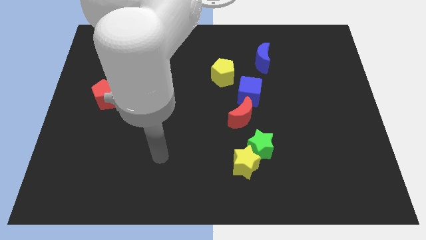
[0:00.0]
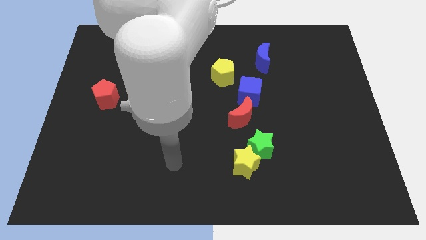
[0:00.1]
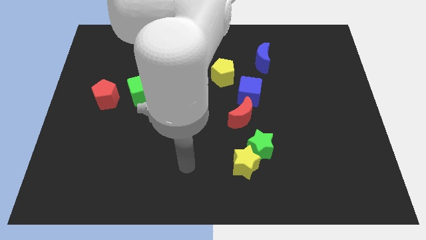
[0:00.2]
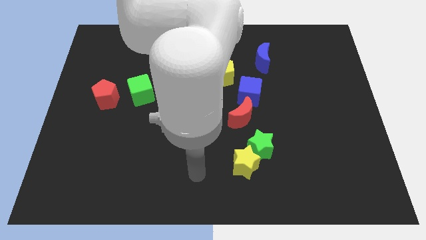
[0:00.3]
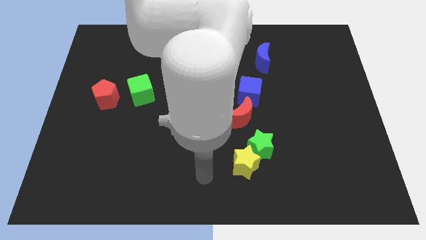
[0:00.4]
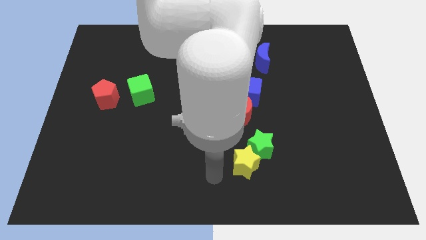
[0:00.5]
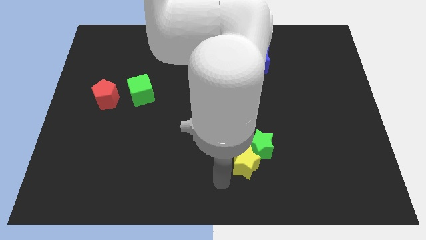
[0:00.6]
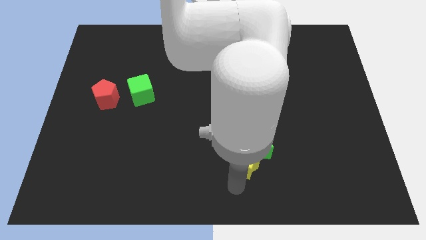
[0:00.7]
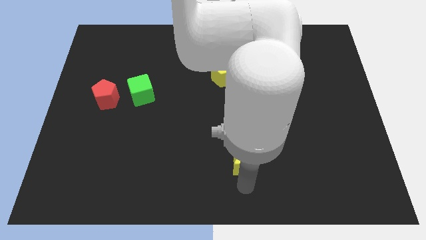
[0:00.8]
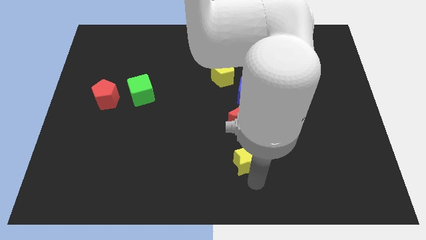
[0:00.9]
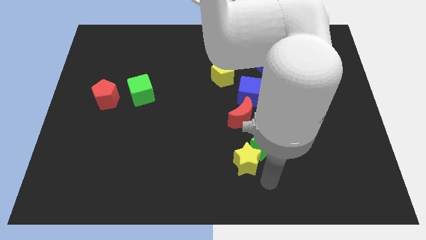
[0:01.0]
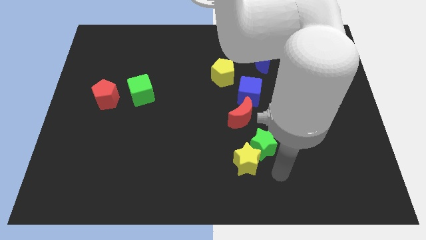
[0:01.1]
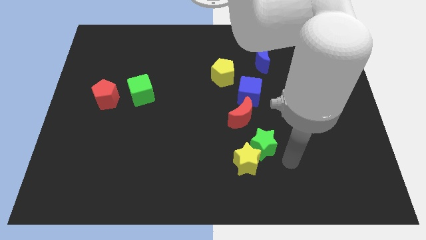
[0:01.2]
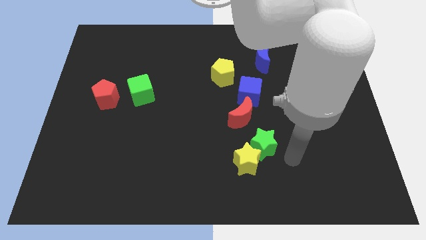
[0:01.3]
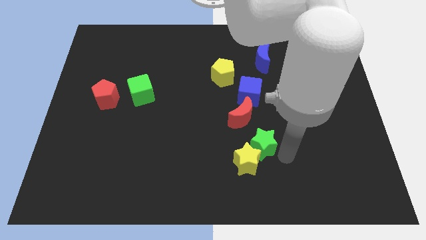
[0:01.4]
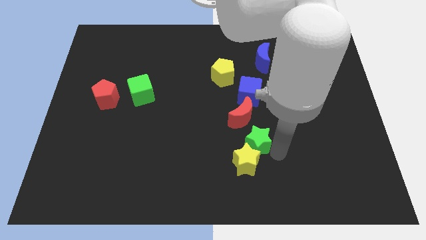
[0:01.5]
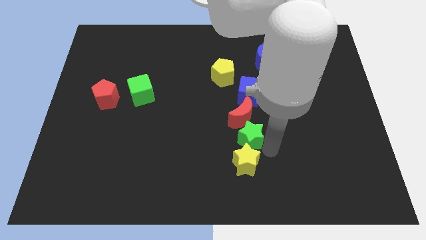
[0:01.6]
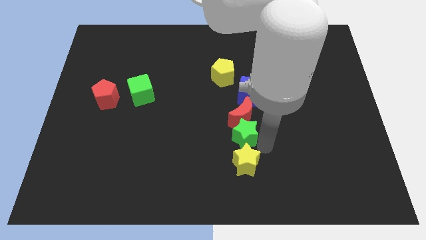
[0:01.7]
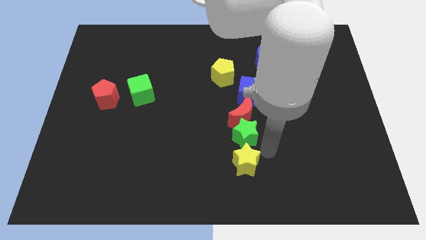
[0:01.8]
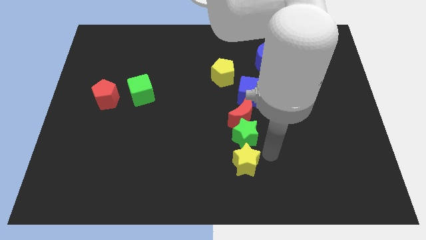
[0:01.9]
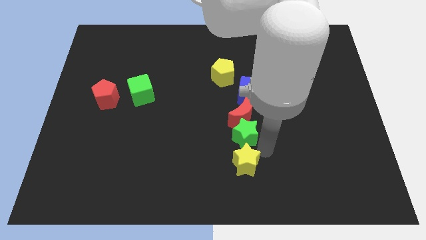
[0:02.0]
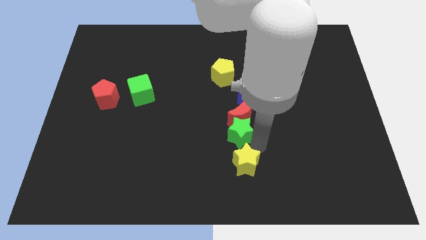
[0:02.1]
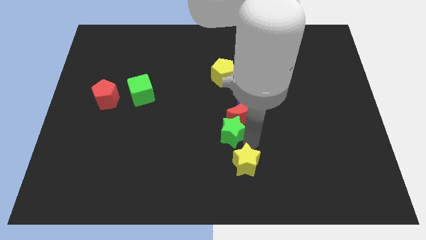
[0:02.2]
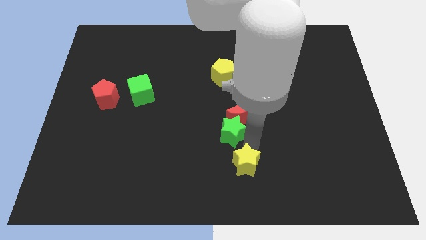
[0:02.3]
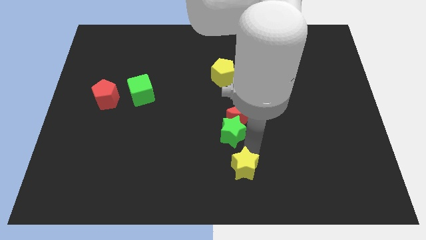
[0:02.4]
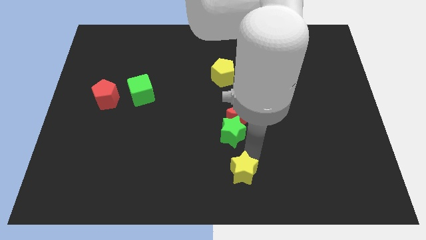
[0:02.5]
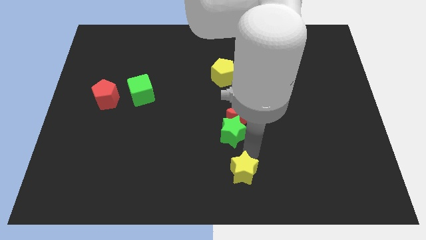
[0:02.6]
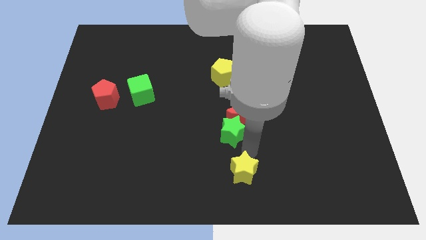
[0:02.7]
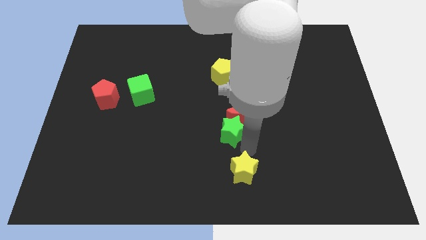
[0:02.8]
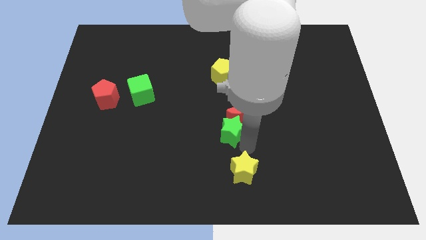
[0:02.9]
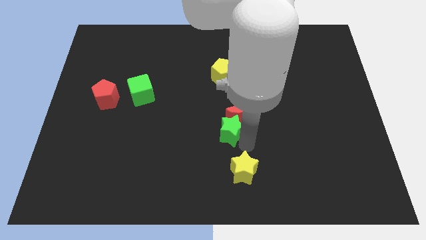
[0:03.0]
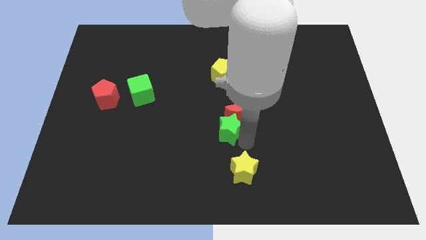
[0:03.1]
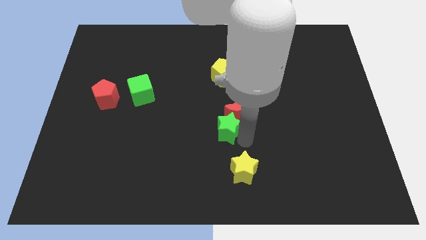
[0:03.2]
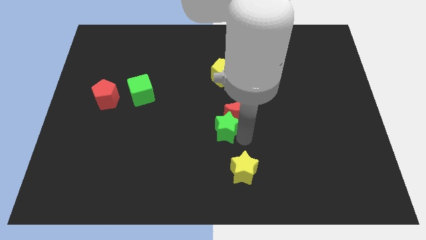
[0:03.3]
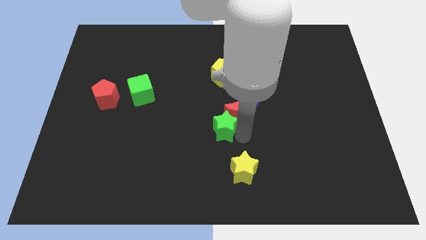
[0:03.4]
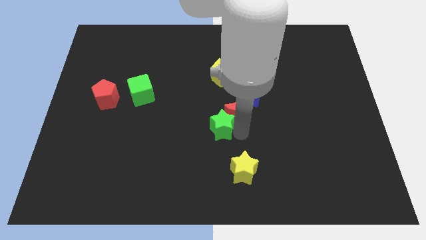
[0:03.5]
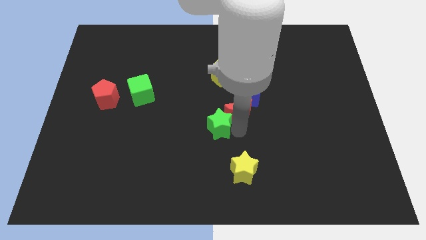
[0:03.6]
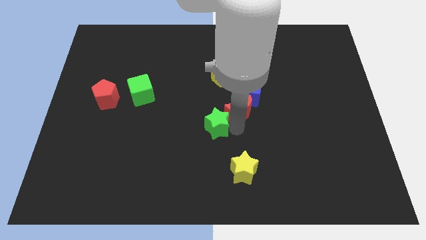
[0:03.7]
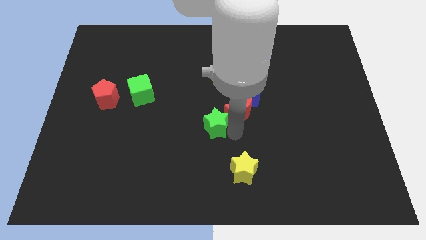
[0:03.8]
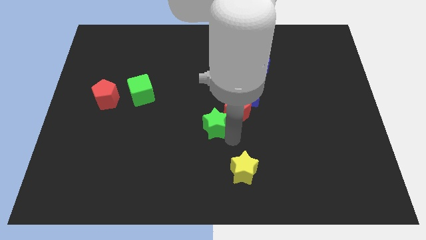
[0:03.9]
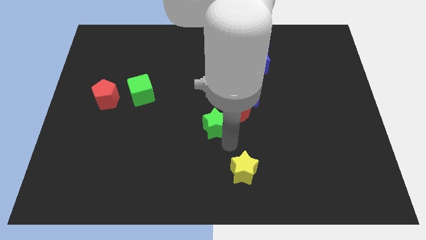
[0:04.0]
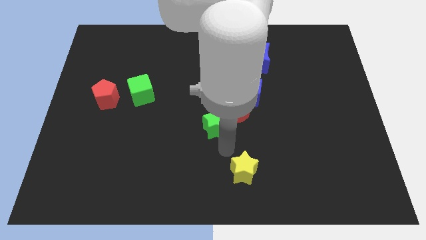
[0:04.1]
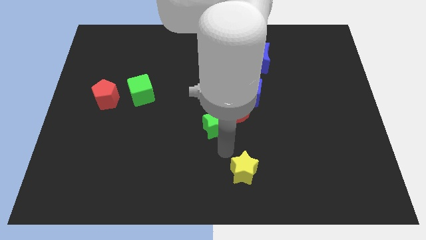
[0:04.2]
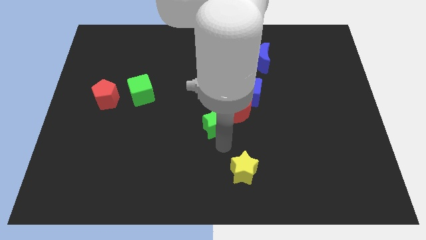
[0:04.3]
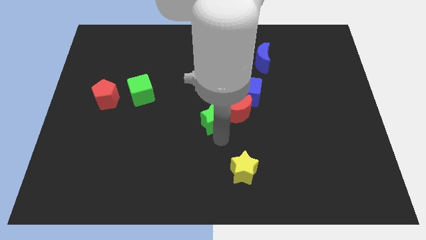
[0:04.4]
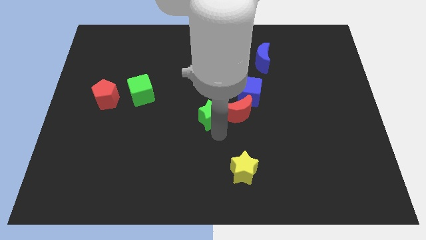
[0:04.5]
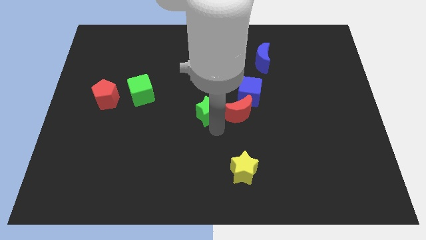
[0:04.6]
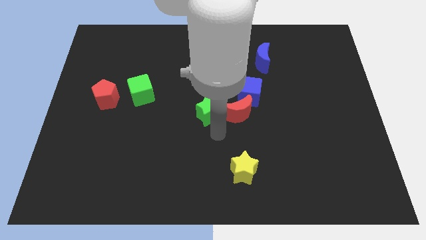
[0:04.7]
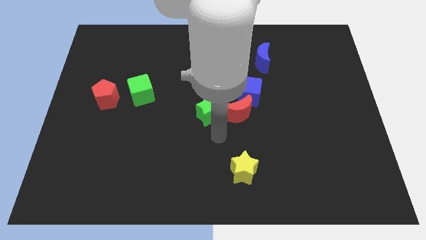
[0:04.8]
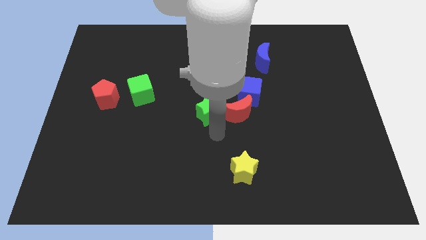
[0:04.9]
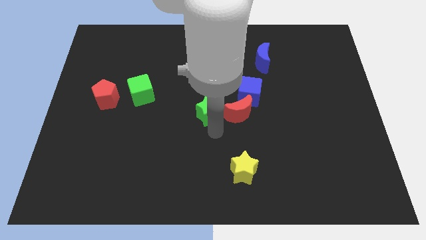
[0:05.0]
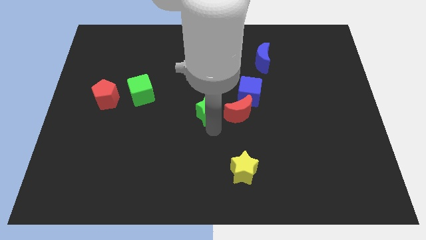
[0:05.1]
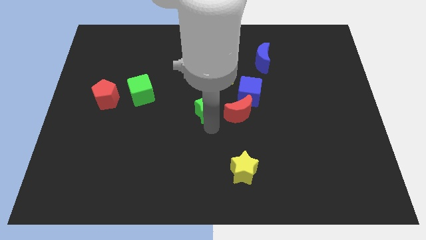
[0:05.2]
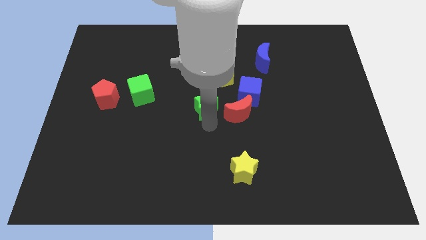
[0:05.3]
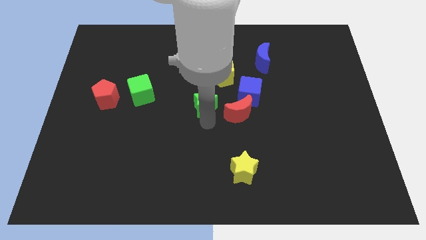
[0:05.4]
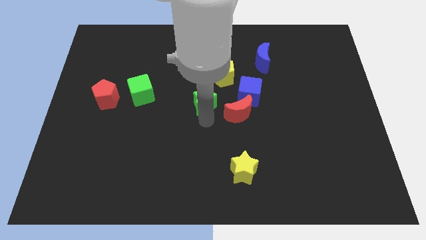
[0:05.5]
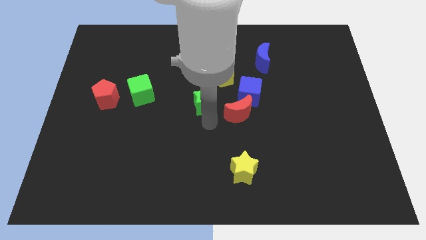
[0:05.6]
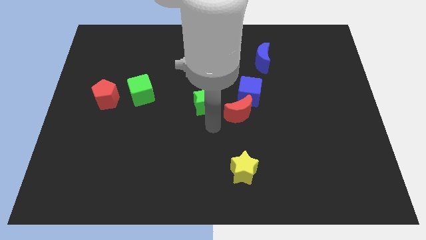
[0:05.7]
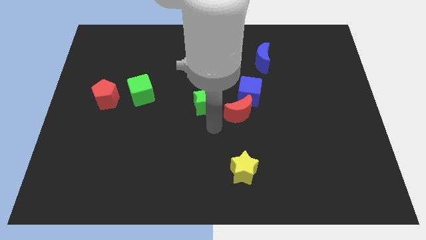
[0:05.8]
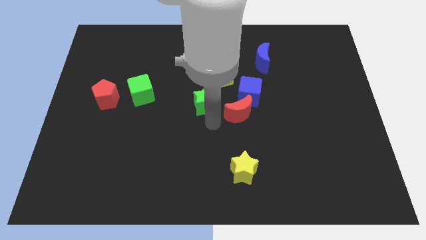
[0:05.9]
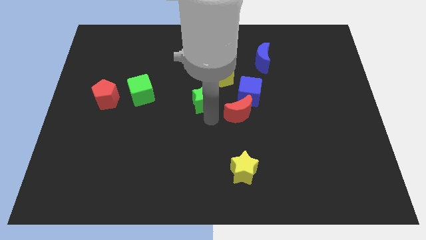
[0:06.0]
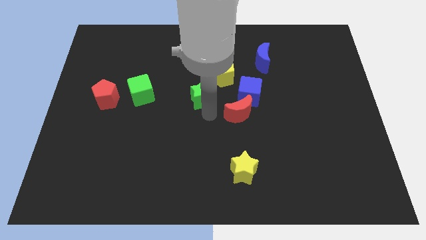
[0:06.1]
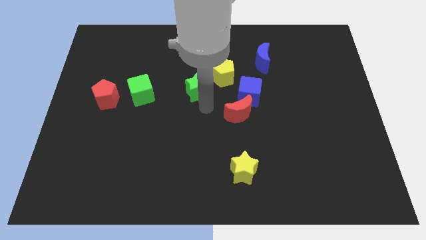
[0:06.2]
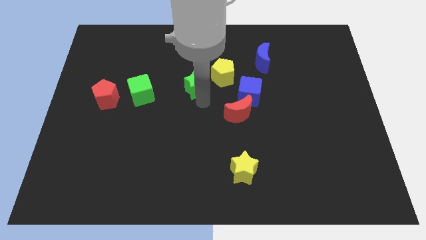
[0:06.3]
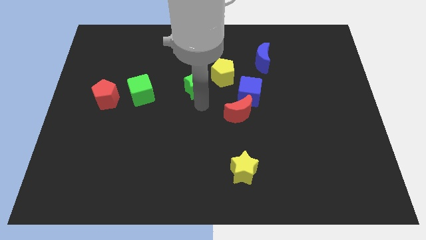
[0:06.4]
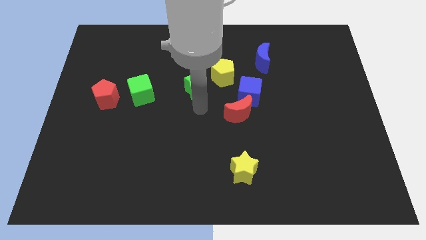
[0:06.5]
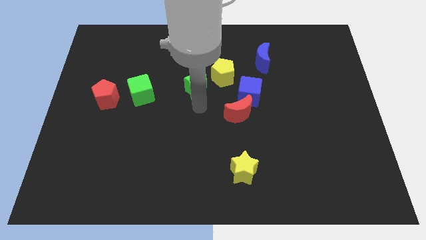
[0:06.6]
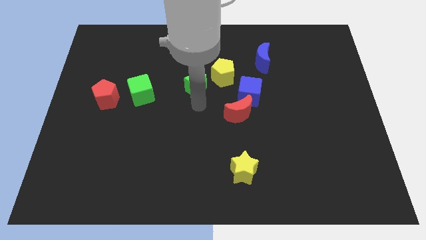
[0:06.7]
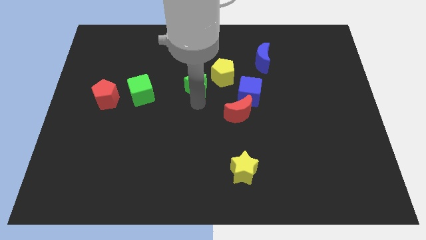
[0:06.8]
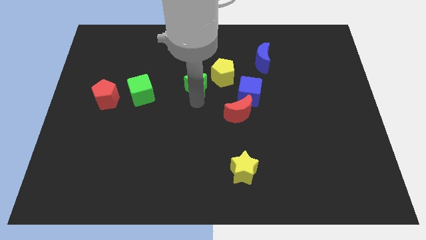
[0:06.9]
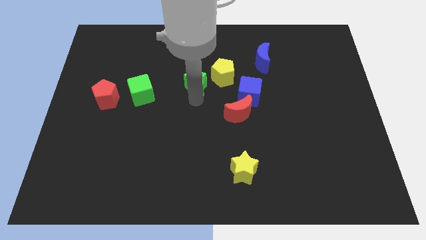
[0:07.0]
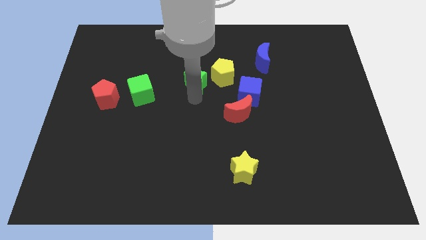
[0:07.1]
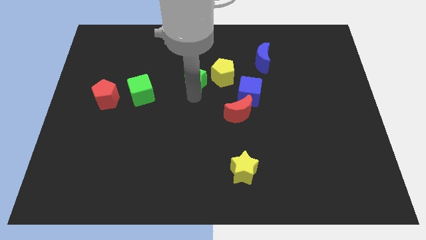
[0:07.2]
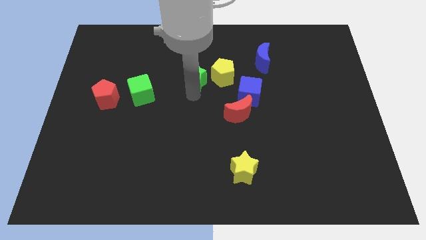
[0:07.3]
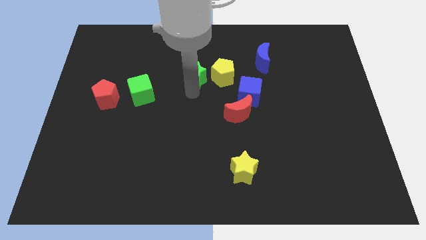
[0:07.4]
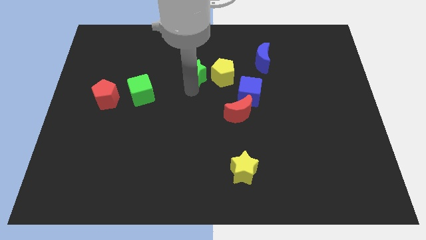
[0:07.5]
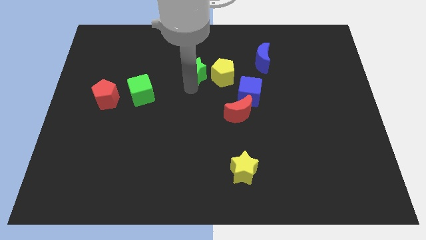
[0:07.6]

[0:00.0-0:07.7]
put the green star to the top left side of the yellow pentagon
